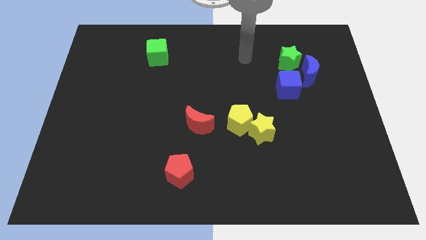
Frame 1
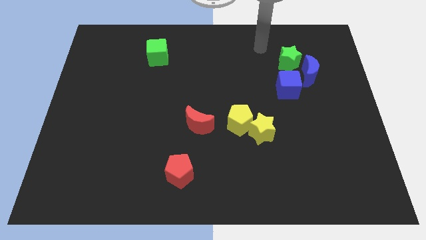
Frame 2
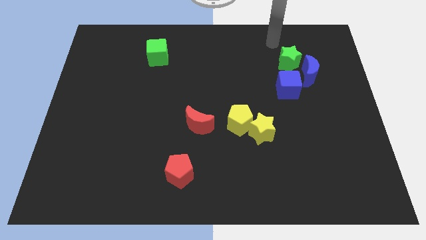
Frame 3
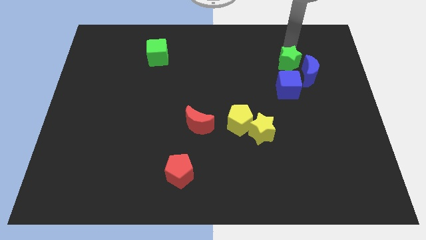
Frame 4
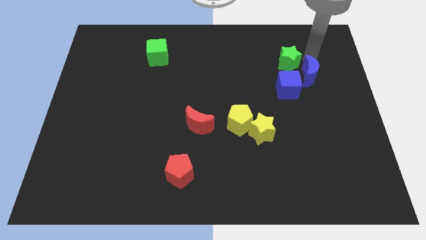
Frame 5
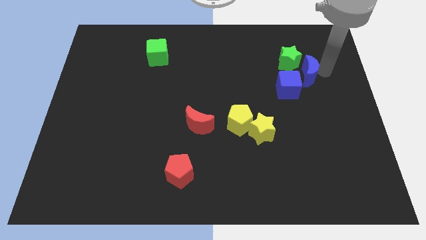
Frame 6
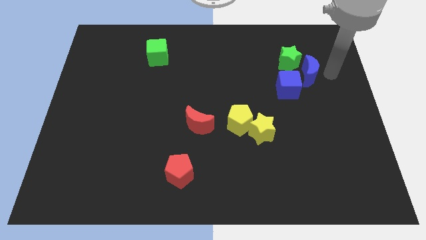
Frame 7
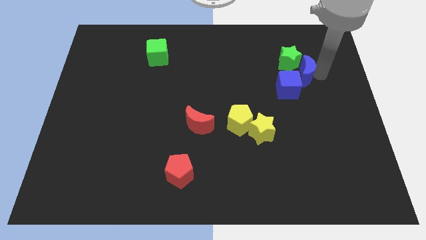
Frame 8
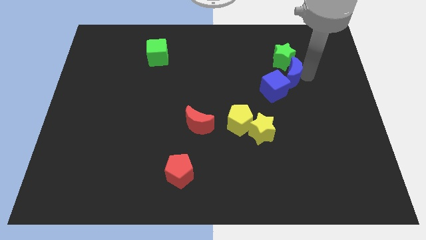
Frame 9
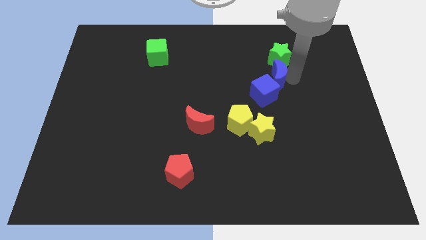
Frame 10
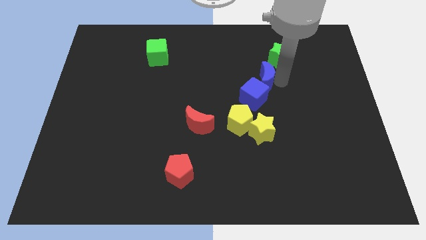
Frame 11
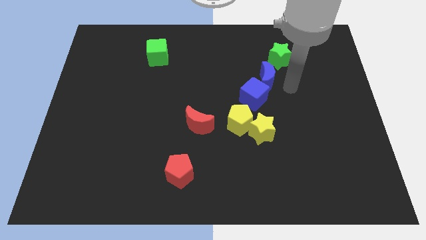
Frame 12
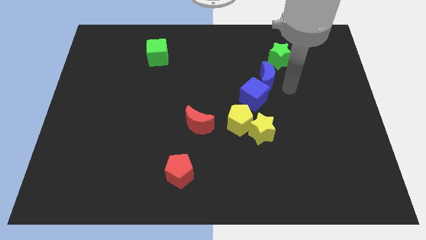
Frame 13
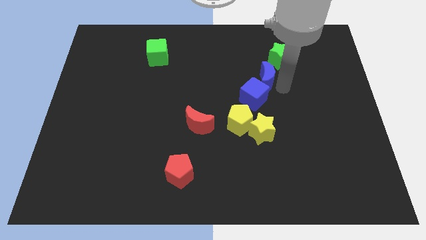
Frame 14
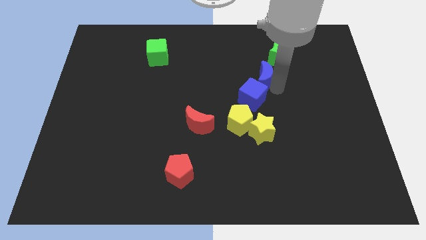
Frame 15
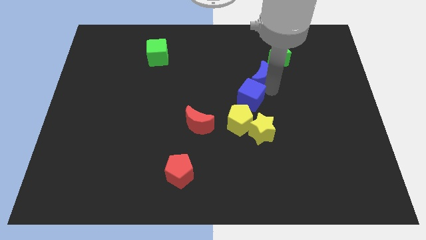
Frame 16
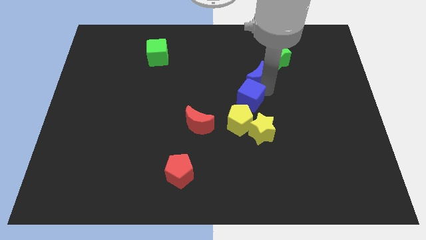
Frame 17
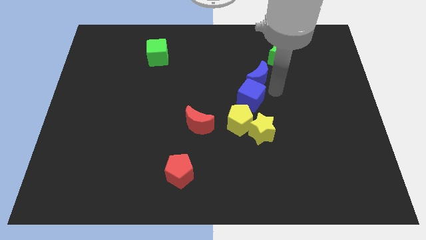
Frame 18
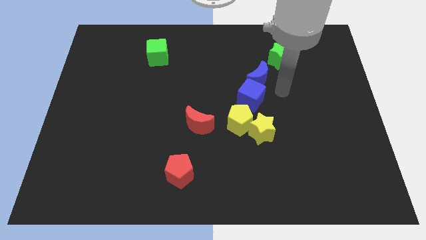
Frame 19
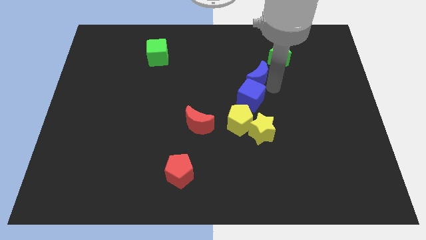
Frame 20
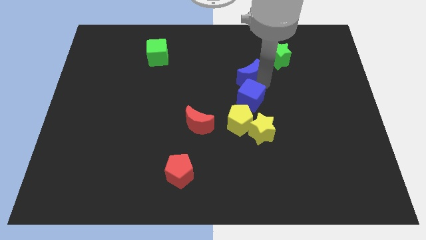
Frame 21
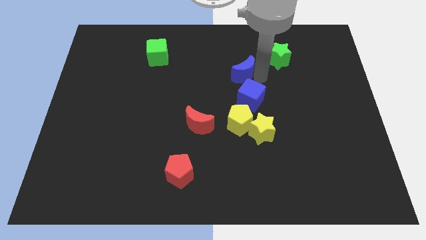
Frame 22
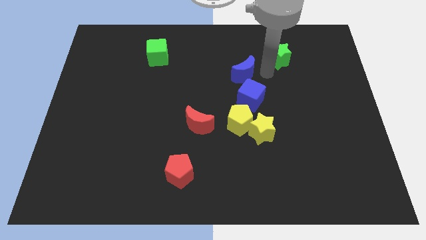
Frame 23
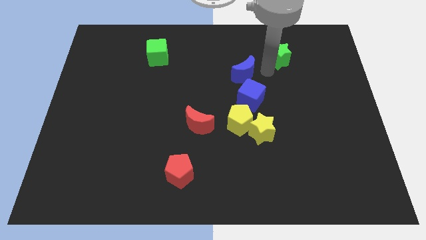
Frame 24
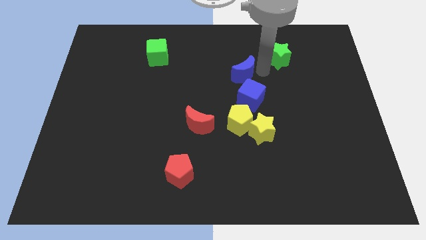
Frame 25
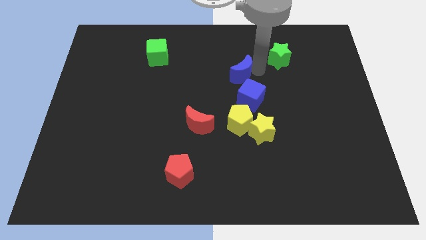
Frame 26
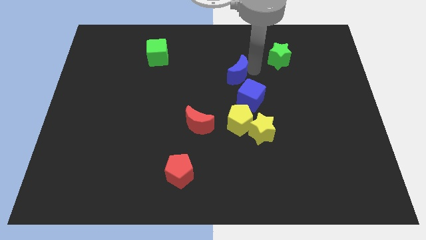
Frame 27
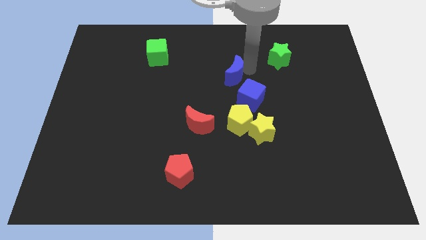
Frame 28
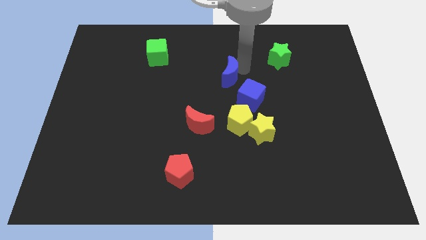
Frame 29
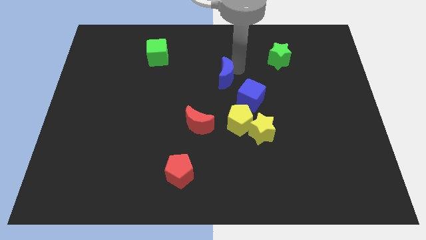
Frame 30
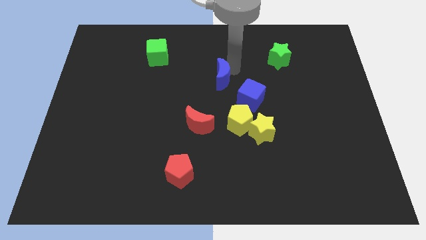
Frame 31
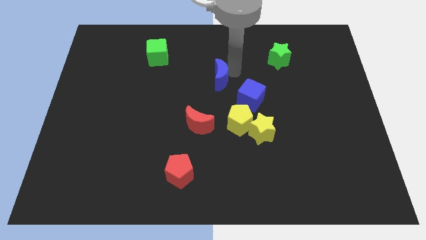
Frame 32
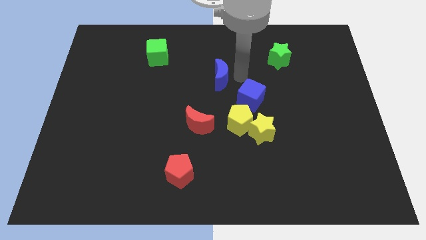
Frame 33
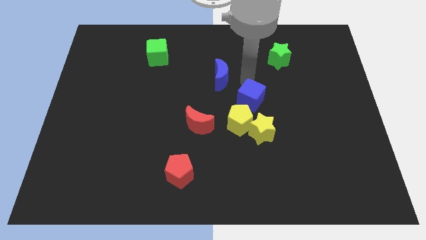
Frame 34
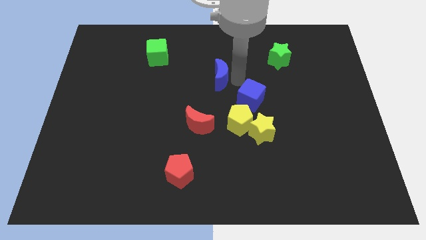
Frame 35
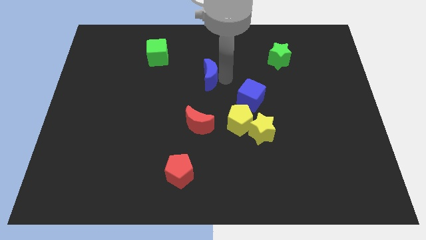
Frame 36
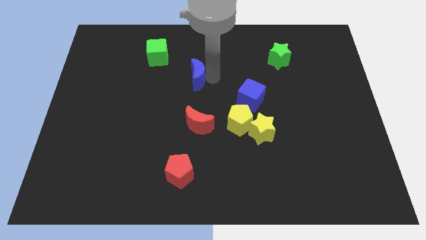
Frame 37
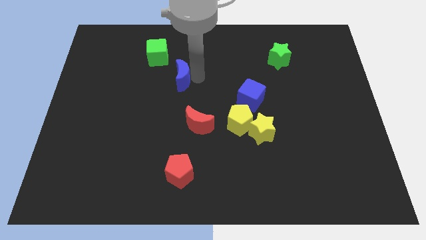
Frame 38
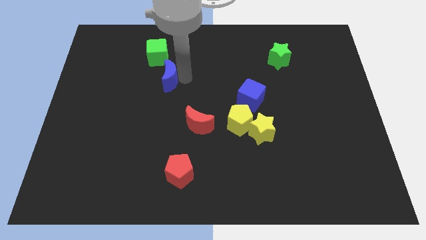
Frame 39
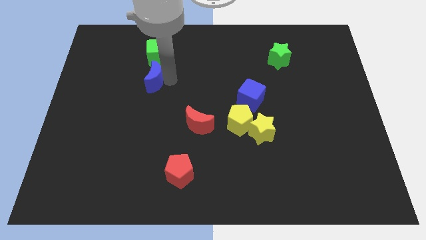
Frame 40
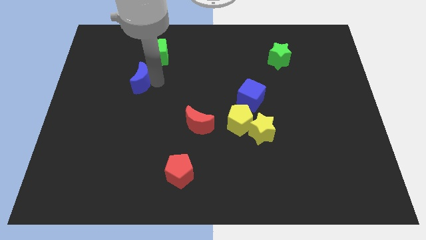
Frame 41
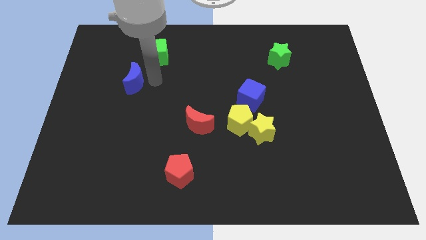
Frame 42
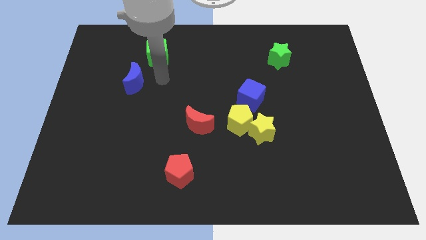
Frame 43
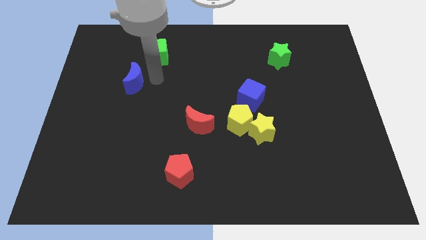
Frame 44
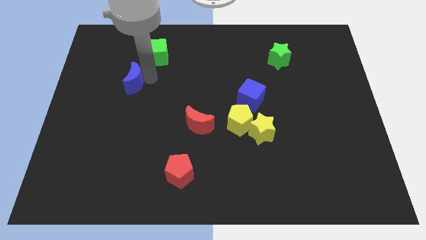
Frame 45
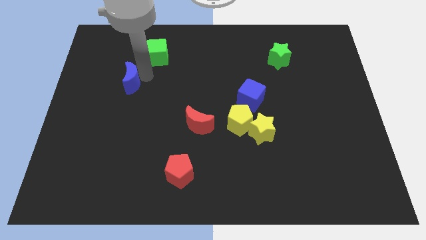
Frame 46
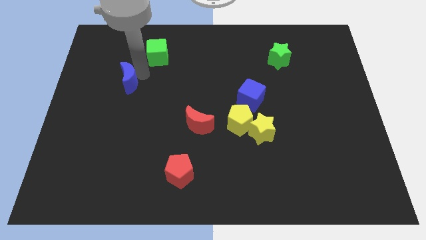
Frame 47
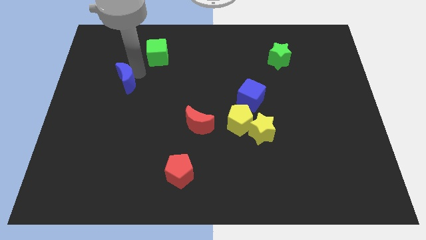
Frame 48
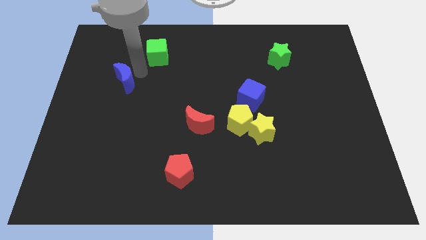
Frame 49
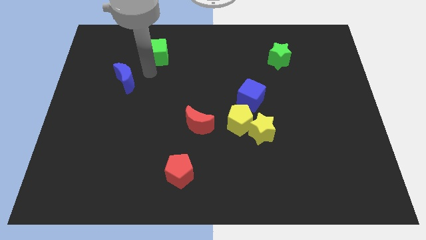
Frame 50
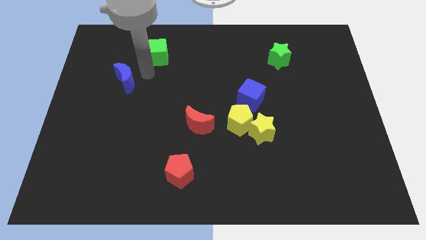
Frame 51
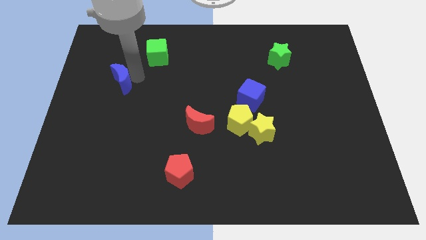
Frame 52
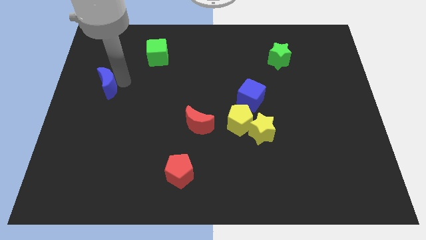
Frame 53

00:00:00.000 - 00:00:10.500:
push the blue moon to the center left

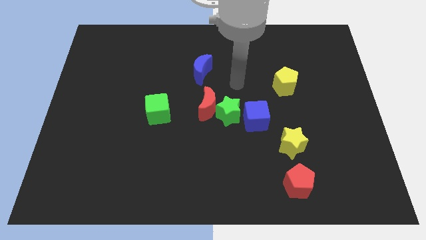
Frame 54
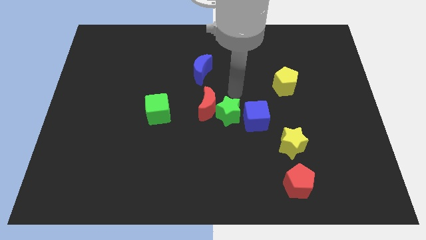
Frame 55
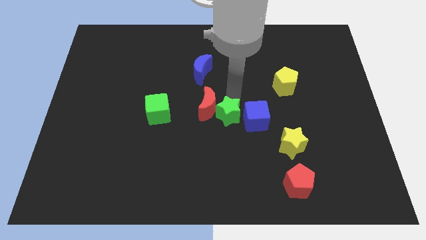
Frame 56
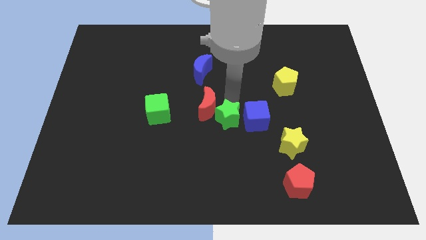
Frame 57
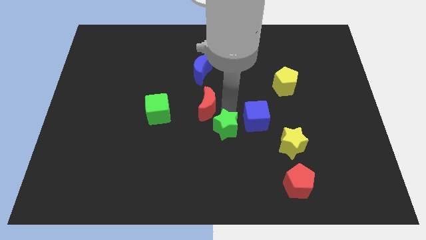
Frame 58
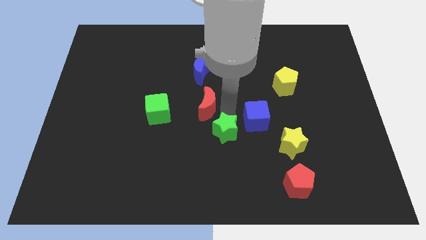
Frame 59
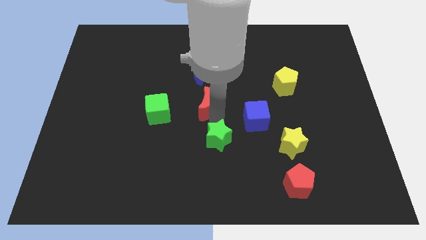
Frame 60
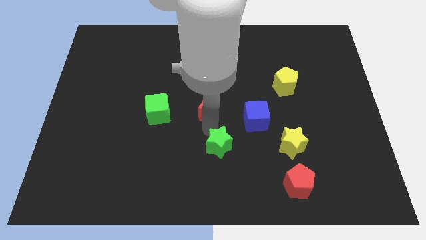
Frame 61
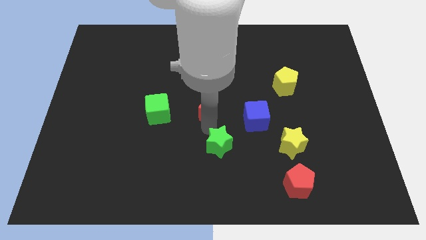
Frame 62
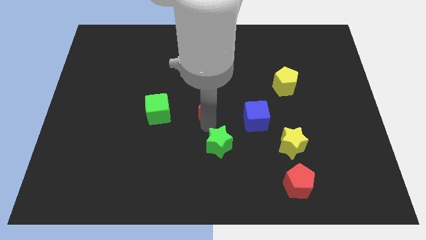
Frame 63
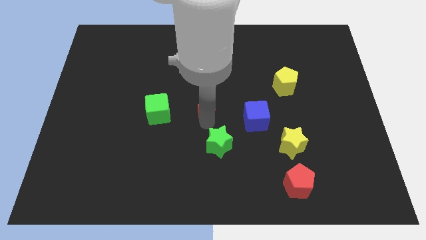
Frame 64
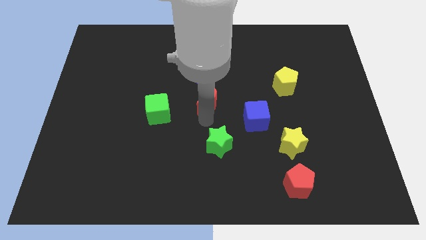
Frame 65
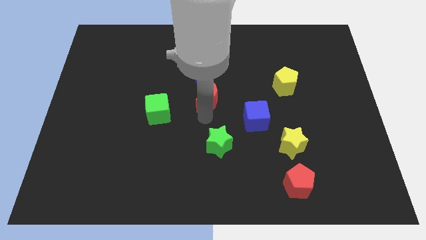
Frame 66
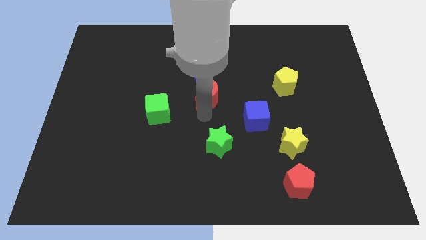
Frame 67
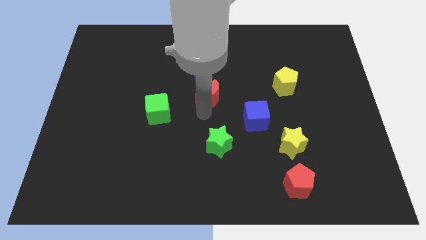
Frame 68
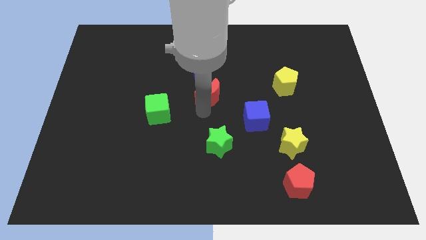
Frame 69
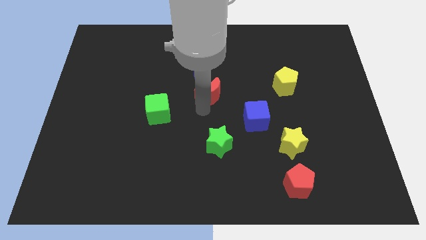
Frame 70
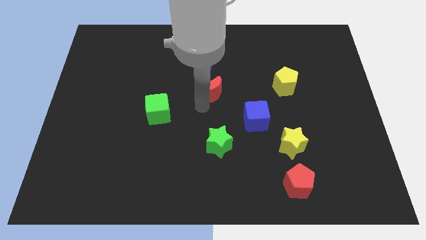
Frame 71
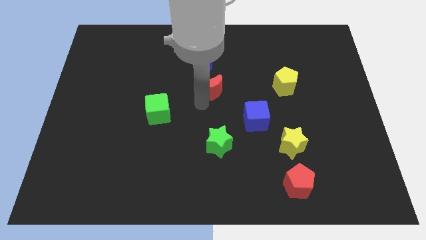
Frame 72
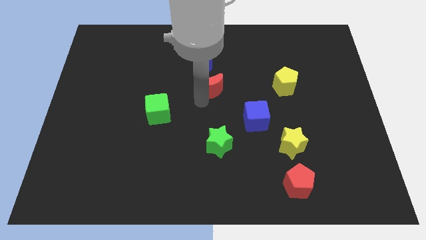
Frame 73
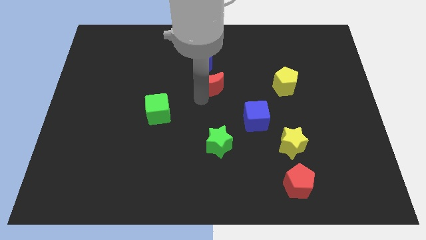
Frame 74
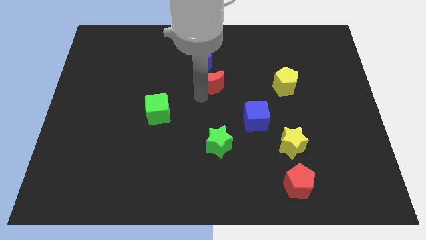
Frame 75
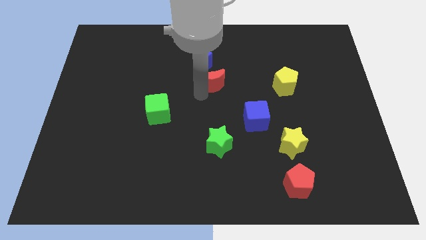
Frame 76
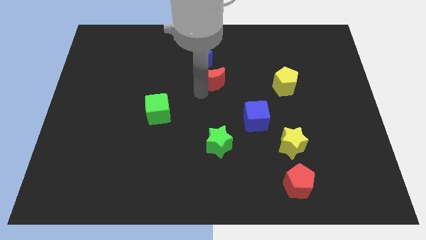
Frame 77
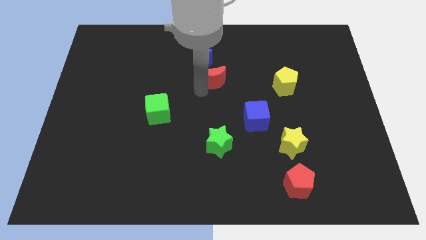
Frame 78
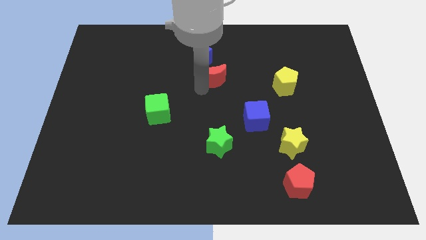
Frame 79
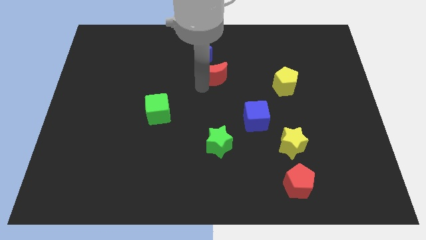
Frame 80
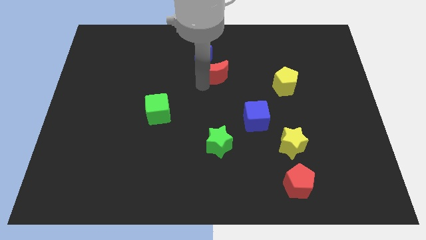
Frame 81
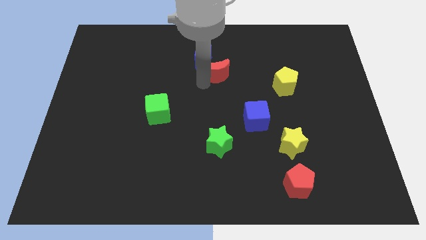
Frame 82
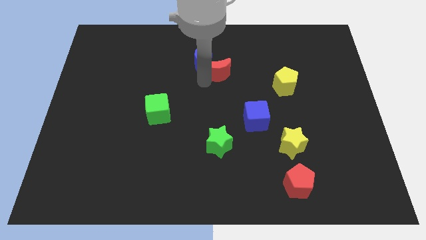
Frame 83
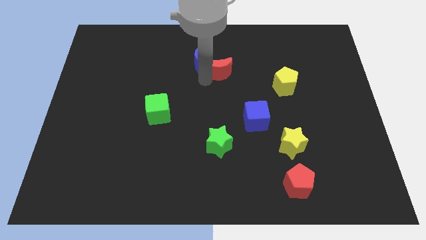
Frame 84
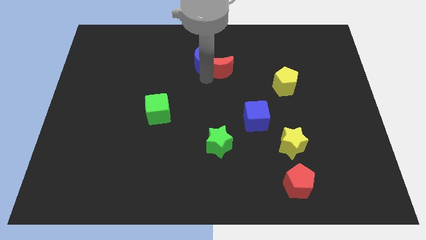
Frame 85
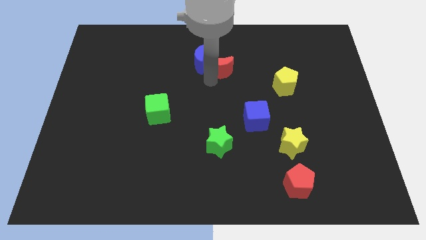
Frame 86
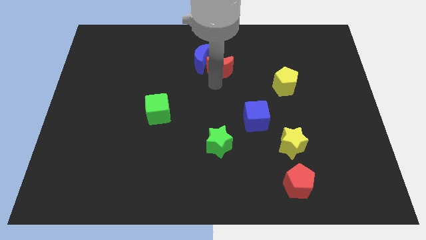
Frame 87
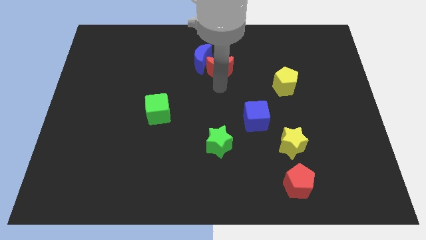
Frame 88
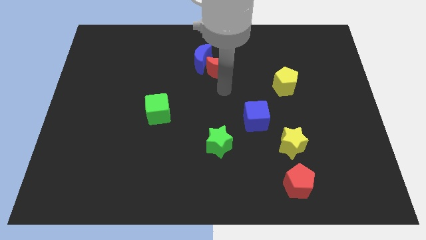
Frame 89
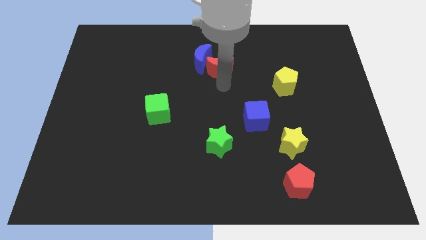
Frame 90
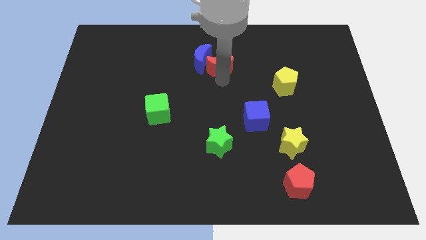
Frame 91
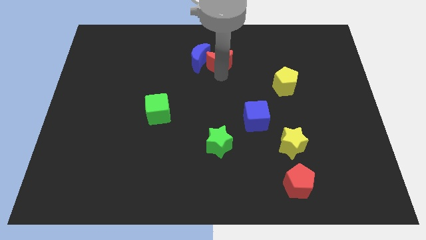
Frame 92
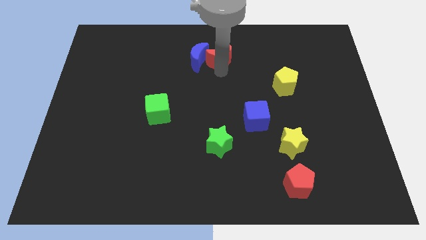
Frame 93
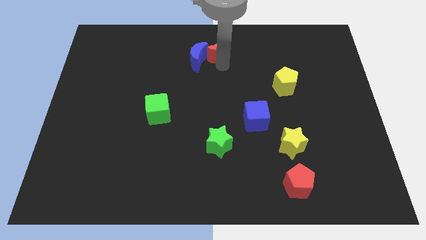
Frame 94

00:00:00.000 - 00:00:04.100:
push the red moon to the top
